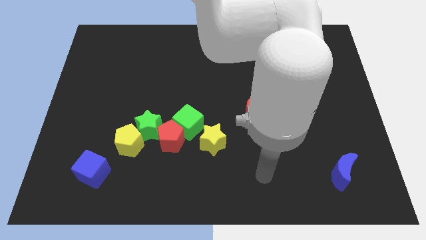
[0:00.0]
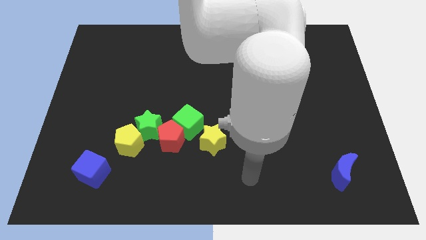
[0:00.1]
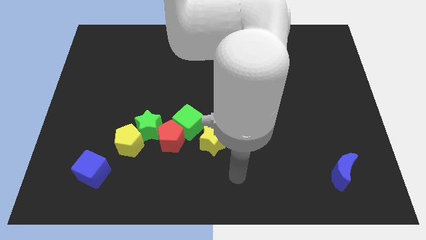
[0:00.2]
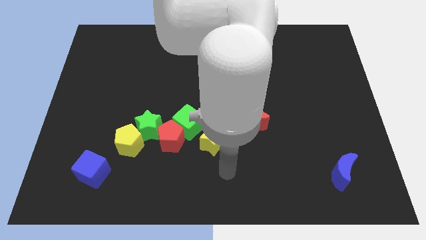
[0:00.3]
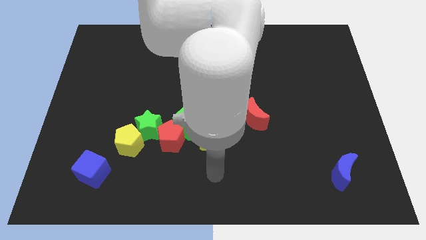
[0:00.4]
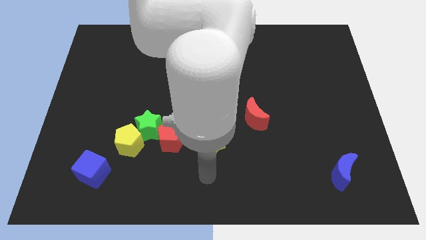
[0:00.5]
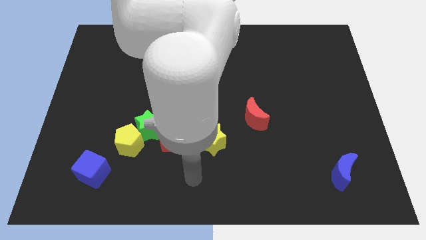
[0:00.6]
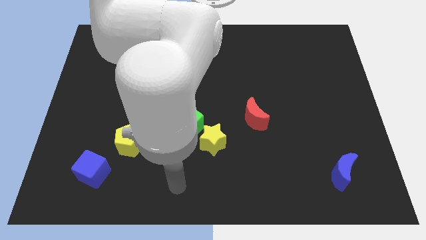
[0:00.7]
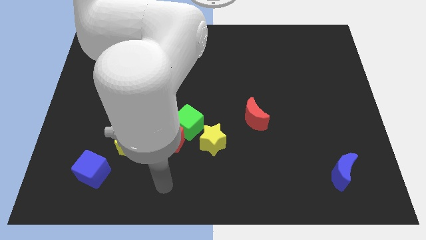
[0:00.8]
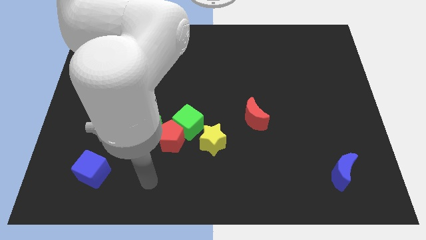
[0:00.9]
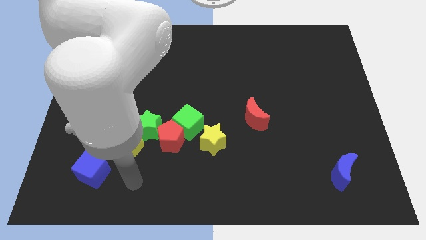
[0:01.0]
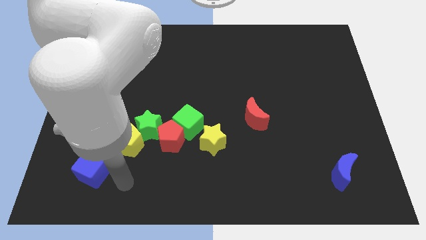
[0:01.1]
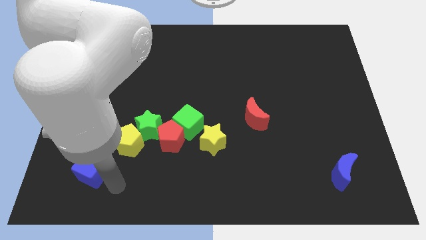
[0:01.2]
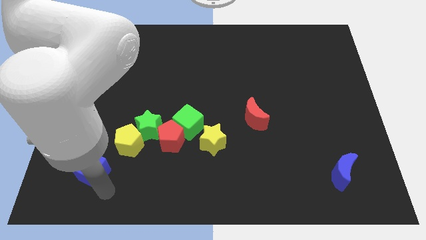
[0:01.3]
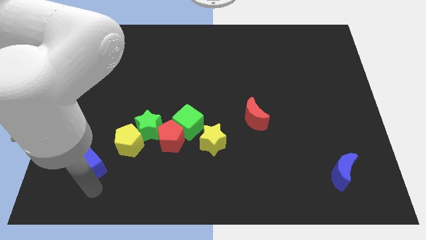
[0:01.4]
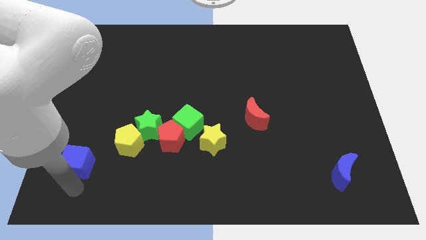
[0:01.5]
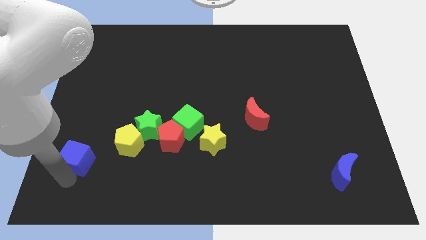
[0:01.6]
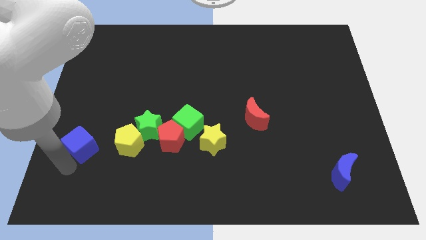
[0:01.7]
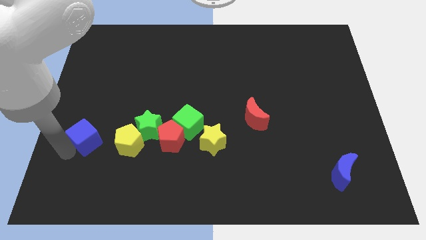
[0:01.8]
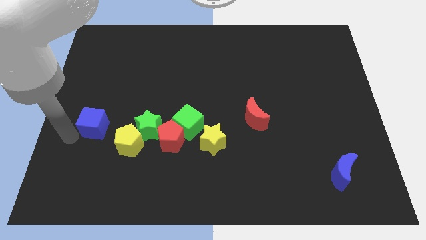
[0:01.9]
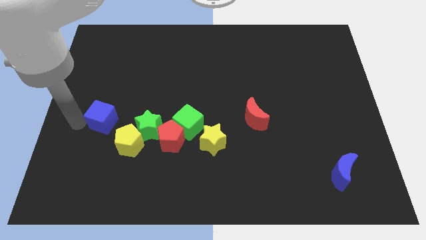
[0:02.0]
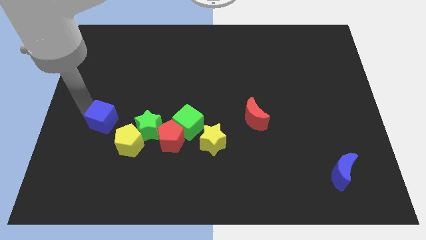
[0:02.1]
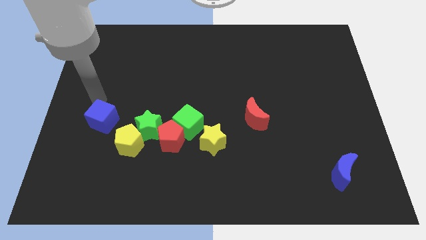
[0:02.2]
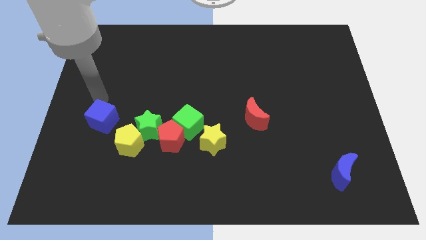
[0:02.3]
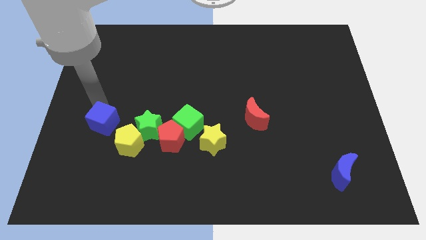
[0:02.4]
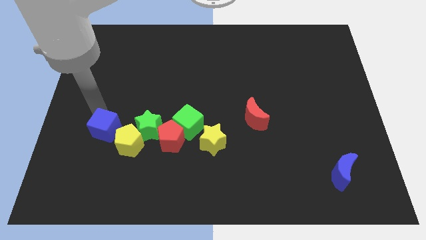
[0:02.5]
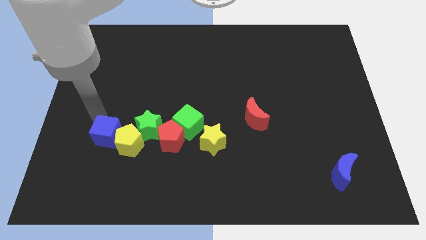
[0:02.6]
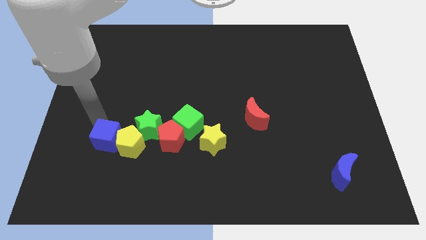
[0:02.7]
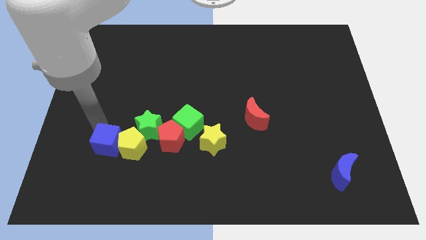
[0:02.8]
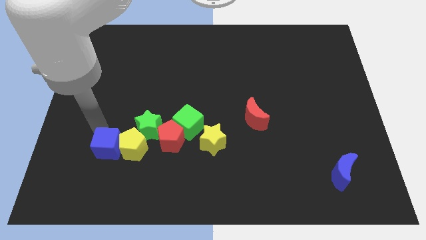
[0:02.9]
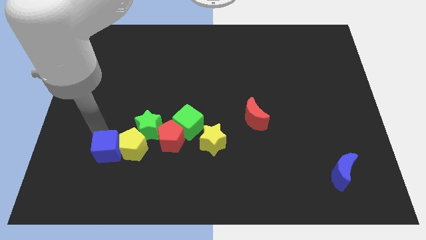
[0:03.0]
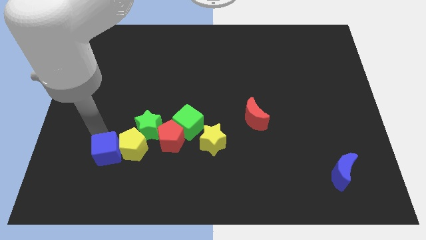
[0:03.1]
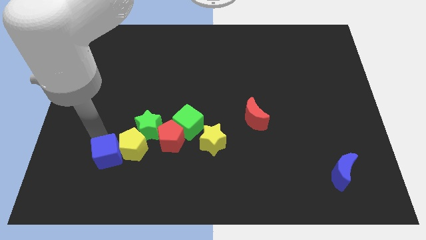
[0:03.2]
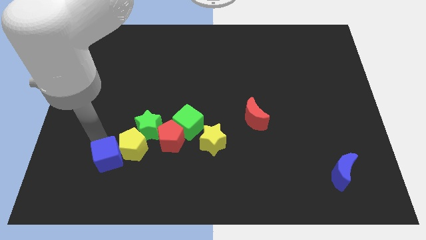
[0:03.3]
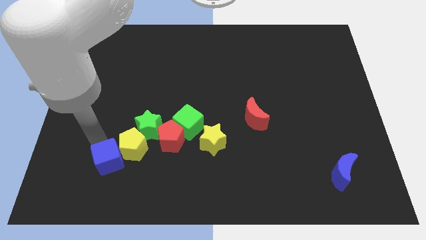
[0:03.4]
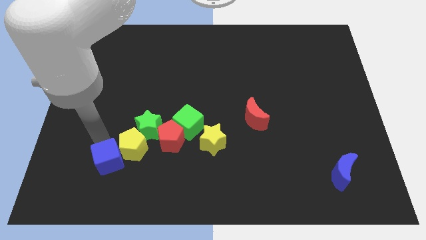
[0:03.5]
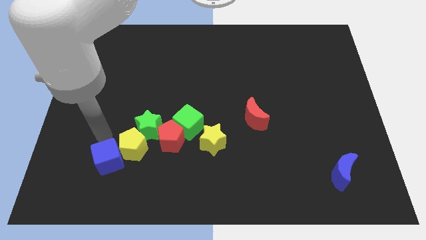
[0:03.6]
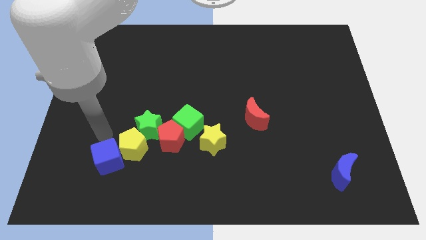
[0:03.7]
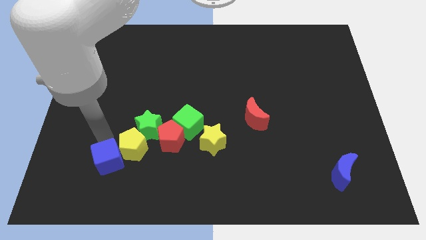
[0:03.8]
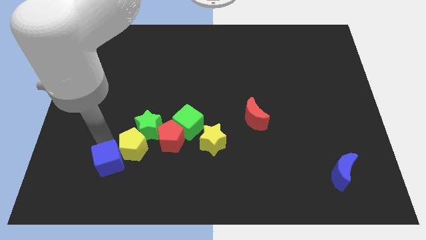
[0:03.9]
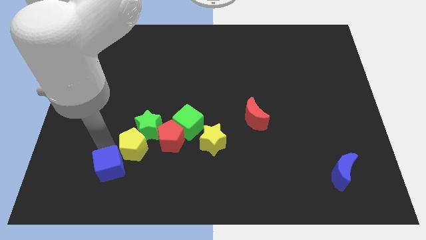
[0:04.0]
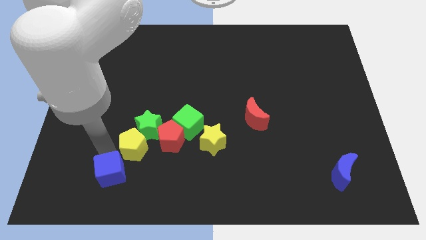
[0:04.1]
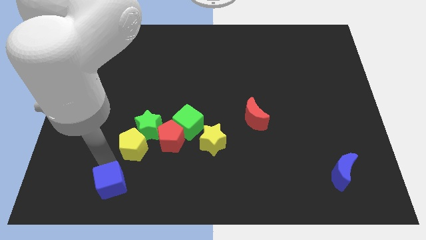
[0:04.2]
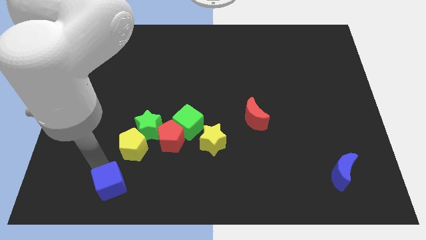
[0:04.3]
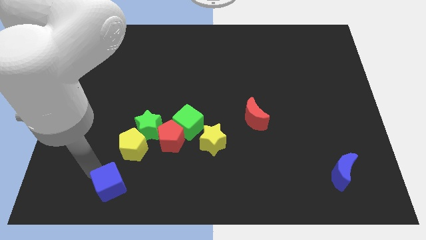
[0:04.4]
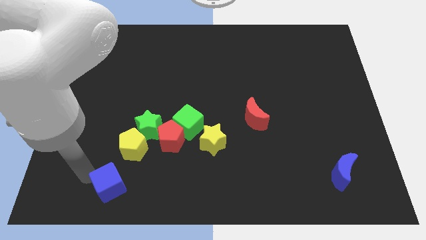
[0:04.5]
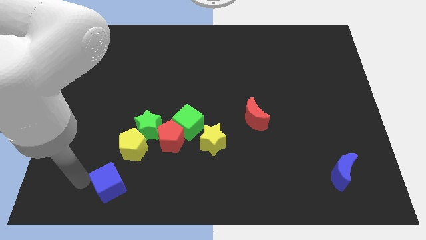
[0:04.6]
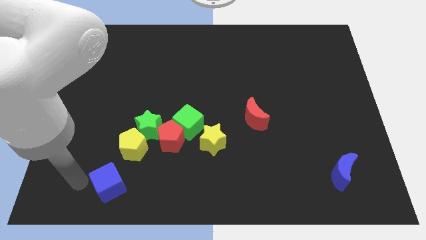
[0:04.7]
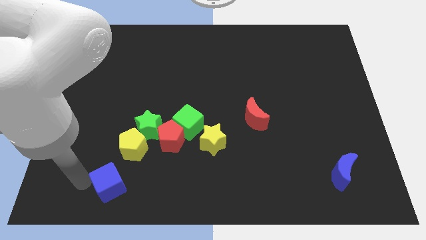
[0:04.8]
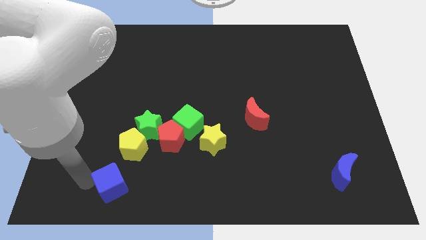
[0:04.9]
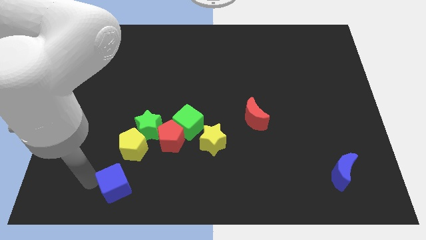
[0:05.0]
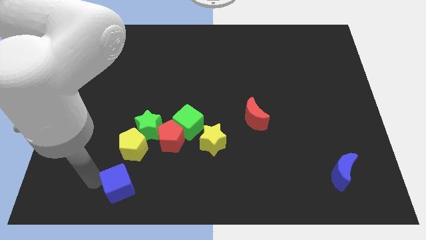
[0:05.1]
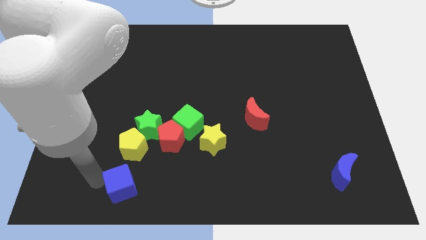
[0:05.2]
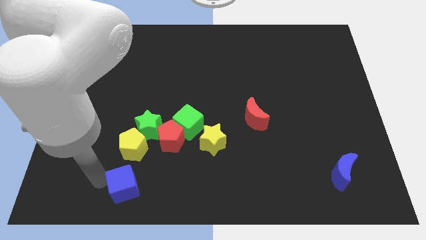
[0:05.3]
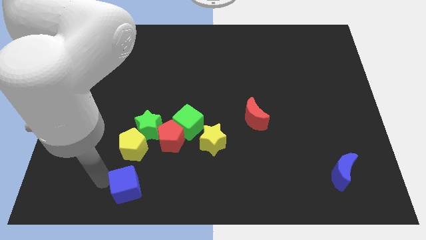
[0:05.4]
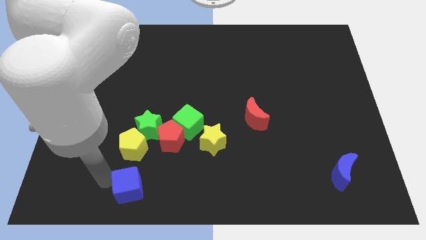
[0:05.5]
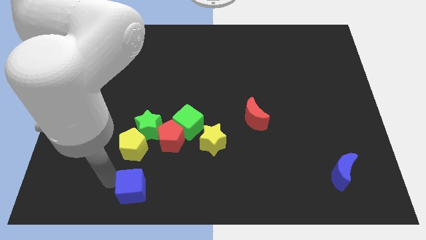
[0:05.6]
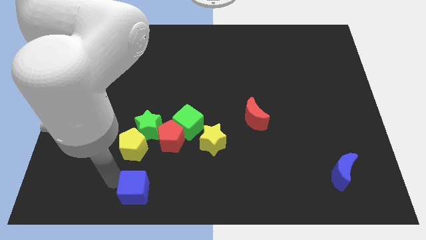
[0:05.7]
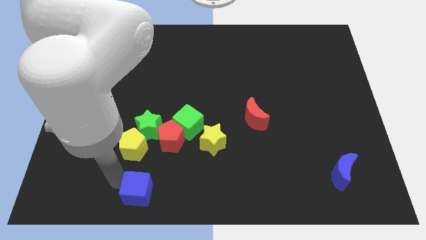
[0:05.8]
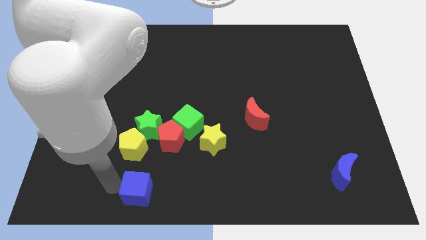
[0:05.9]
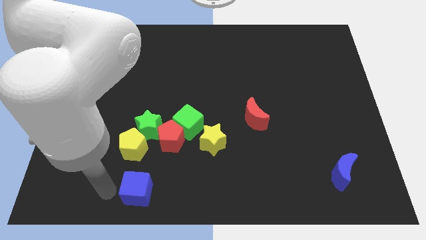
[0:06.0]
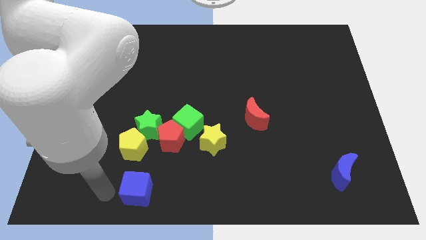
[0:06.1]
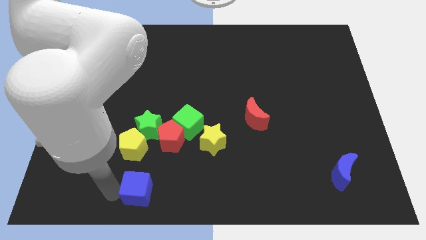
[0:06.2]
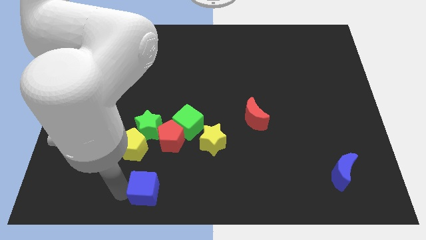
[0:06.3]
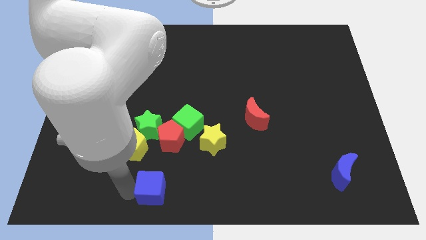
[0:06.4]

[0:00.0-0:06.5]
move the blue cube to the bottom side

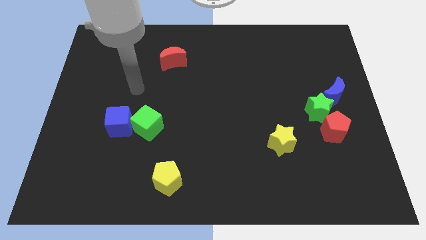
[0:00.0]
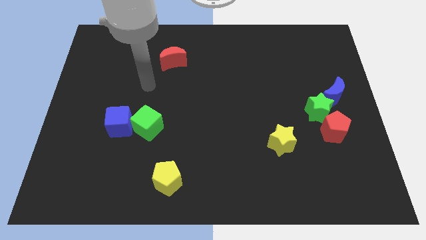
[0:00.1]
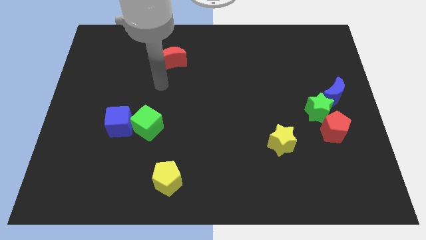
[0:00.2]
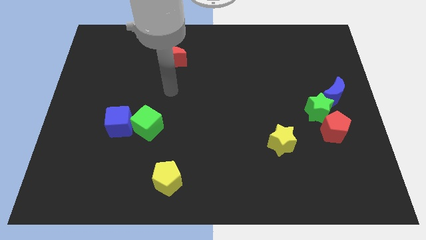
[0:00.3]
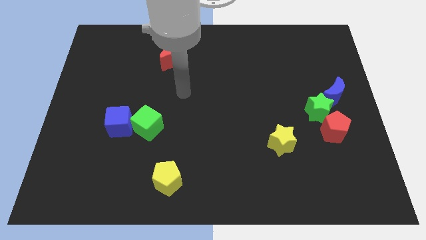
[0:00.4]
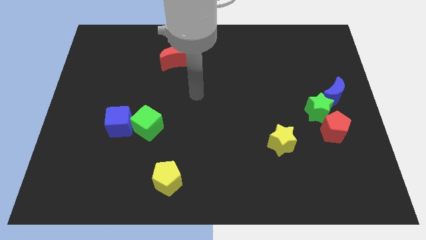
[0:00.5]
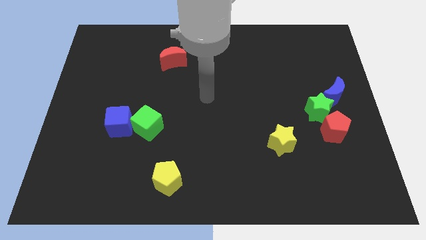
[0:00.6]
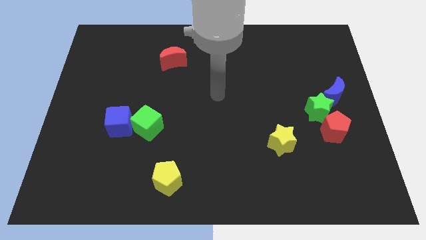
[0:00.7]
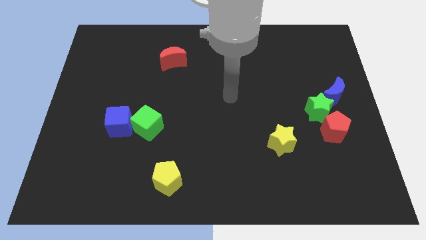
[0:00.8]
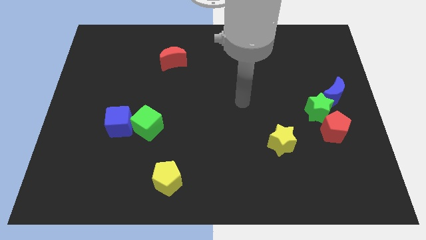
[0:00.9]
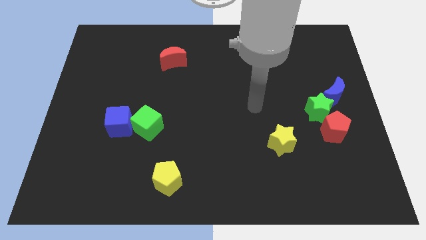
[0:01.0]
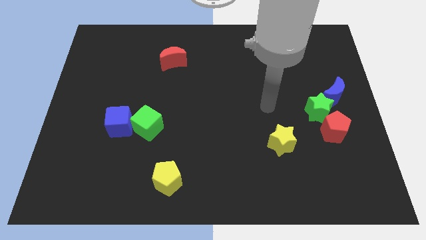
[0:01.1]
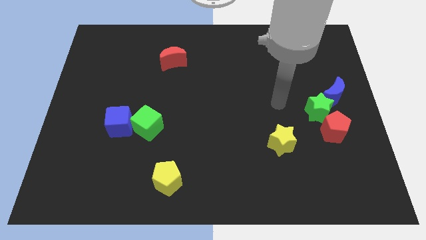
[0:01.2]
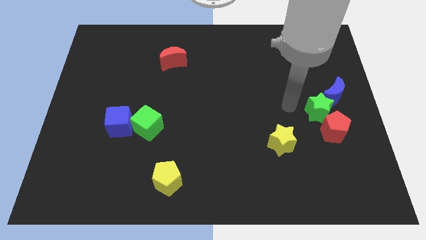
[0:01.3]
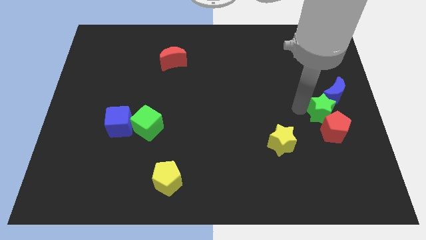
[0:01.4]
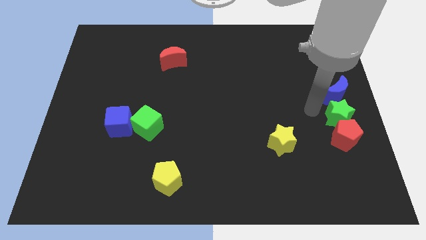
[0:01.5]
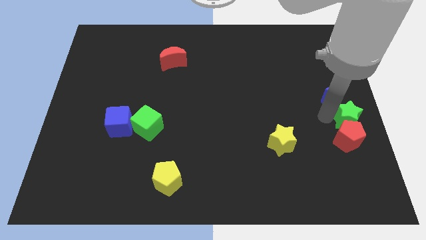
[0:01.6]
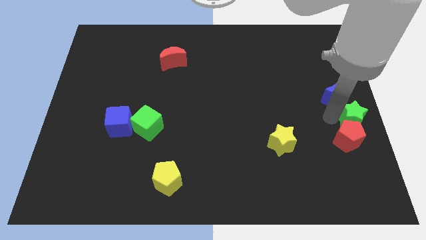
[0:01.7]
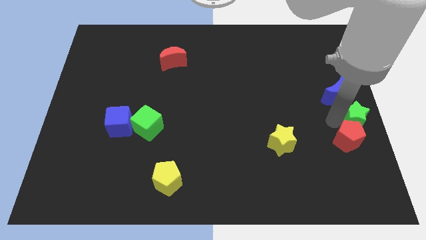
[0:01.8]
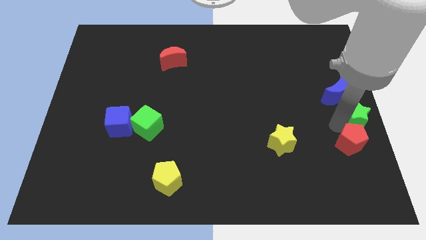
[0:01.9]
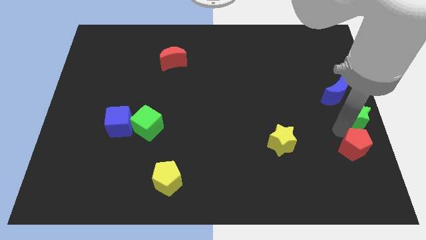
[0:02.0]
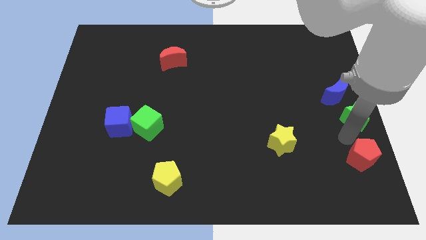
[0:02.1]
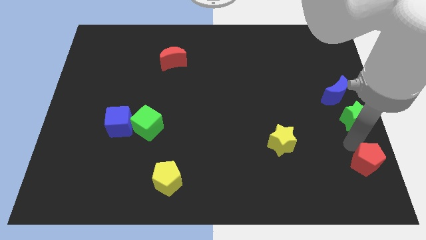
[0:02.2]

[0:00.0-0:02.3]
push the red pentagon to the bottom right of the board
